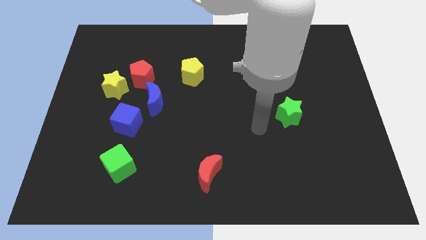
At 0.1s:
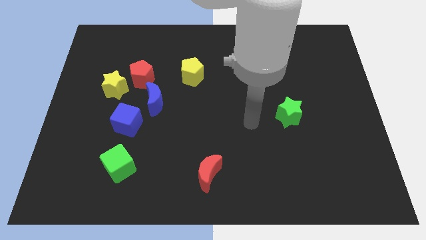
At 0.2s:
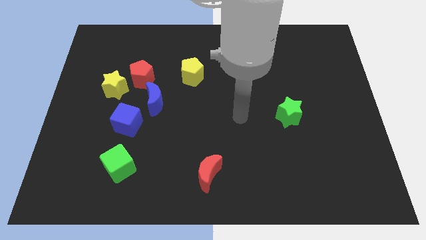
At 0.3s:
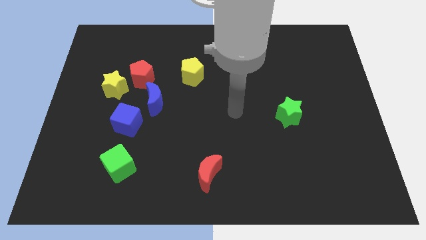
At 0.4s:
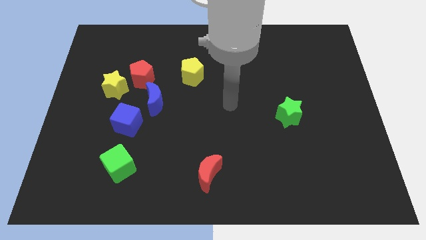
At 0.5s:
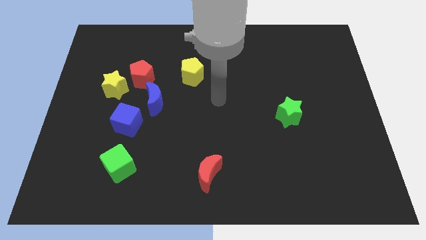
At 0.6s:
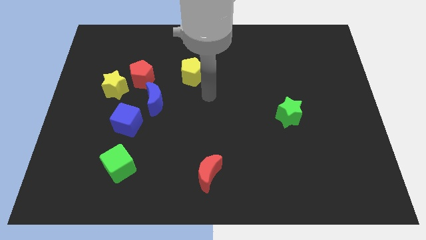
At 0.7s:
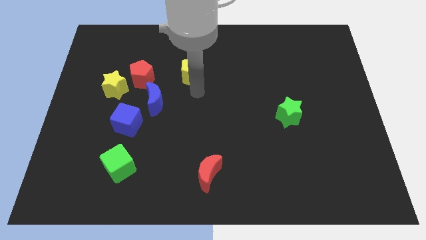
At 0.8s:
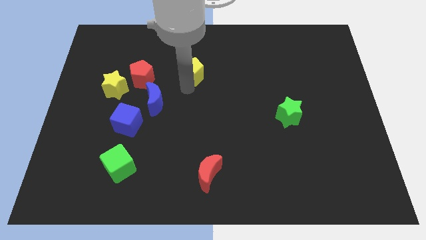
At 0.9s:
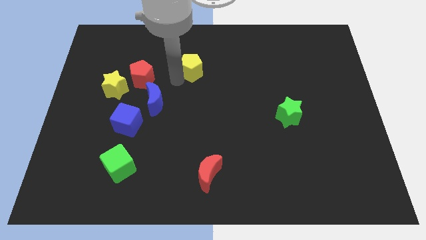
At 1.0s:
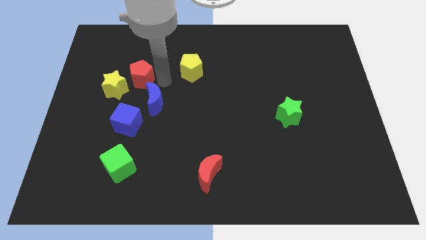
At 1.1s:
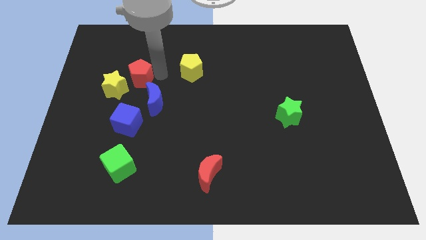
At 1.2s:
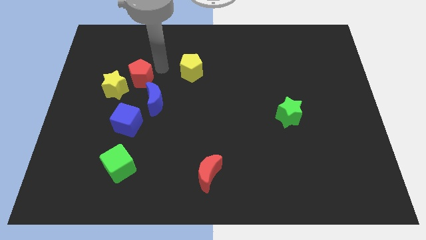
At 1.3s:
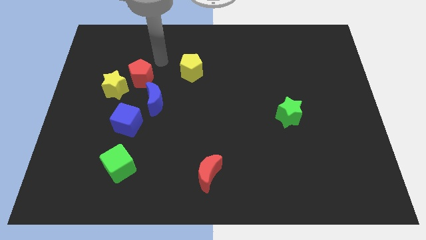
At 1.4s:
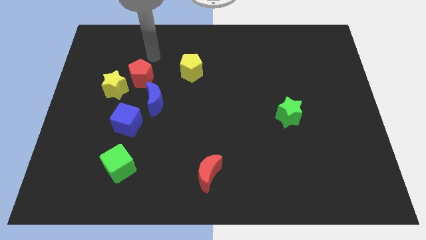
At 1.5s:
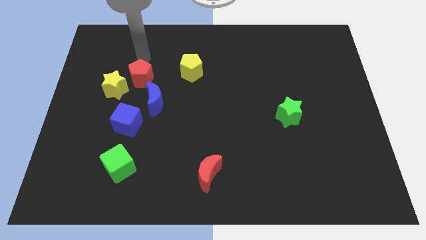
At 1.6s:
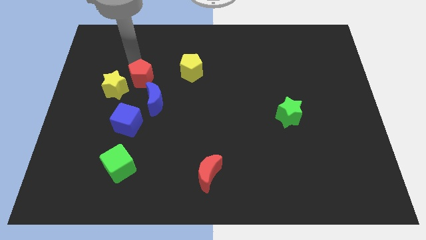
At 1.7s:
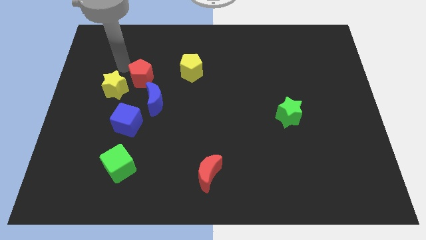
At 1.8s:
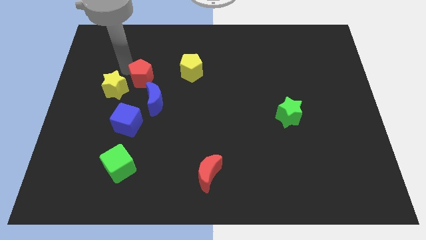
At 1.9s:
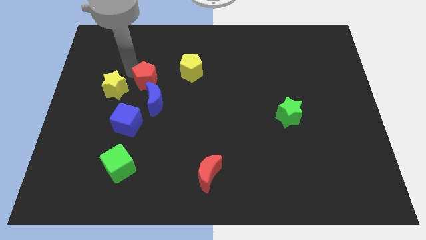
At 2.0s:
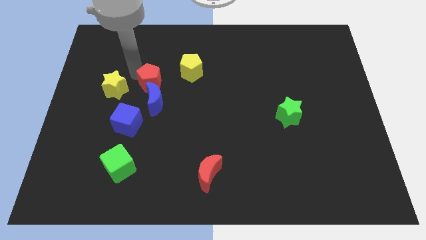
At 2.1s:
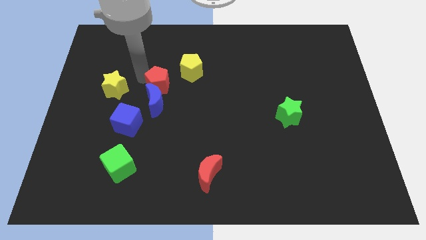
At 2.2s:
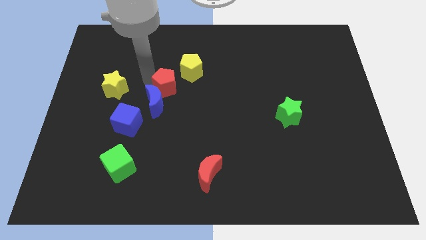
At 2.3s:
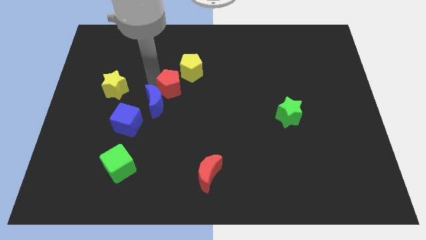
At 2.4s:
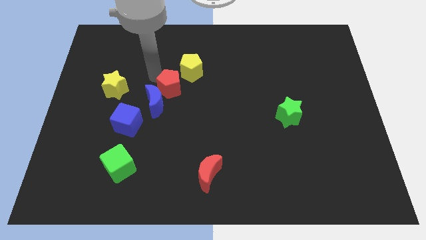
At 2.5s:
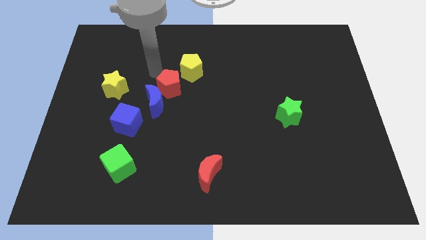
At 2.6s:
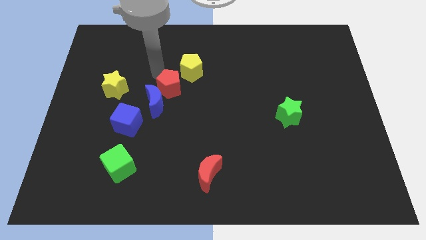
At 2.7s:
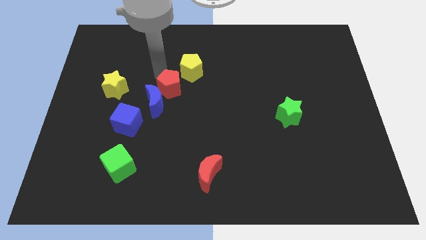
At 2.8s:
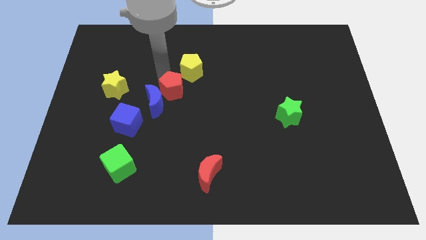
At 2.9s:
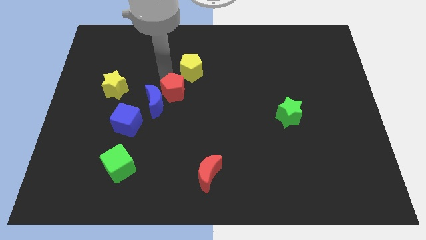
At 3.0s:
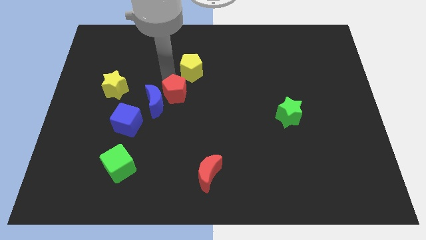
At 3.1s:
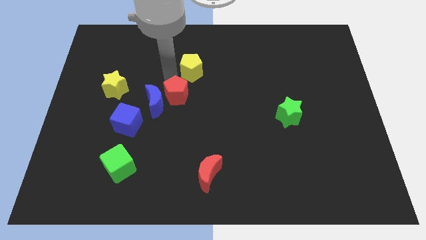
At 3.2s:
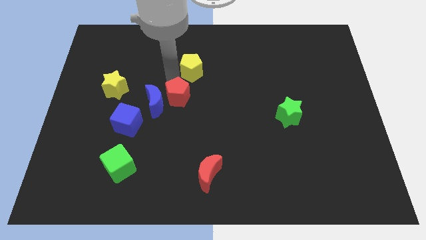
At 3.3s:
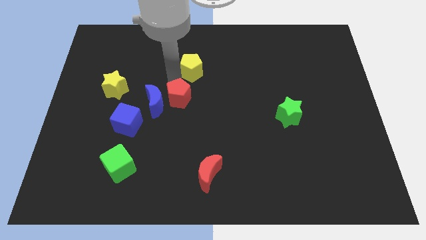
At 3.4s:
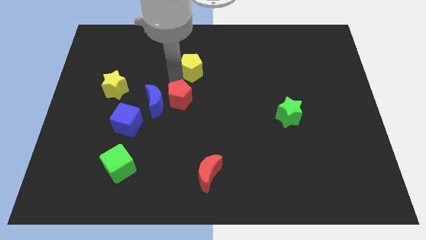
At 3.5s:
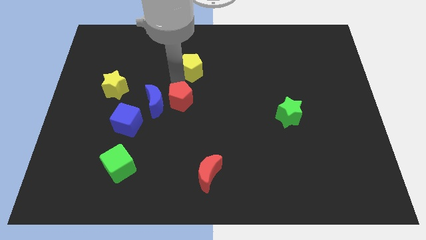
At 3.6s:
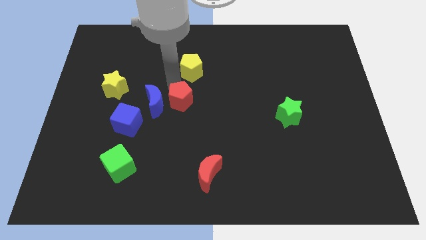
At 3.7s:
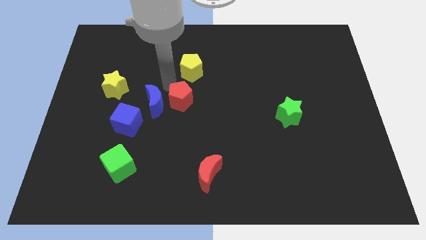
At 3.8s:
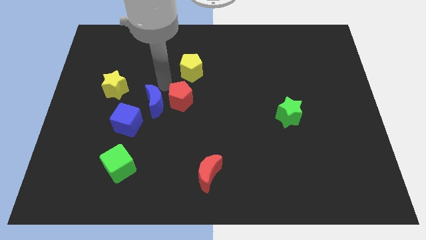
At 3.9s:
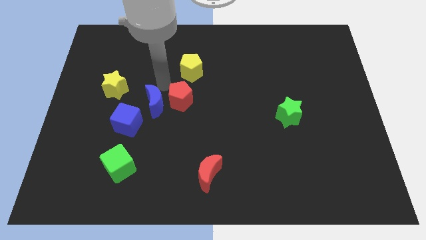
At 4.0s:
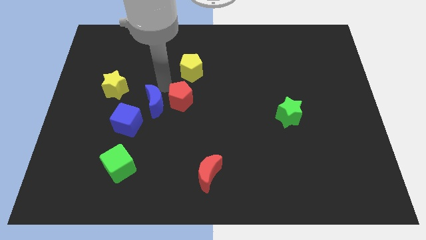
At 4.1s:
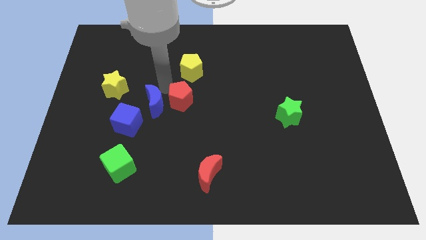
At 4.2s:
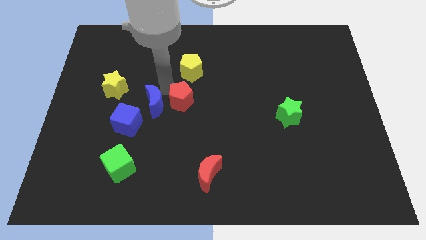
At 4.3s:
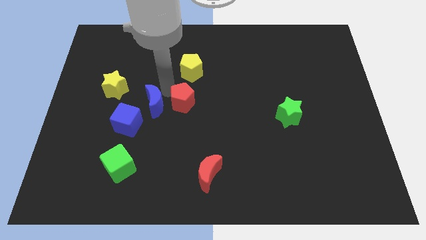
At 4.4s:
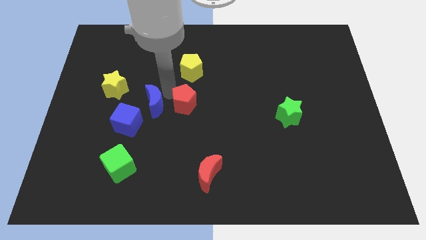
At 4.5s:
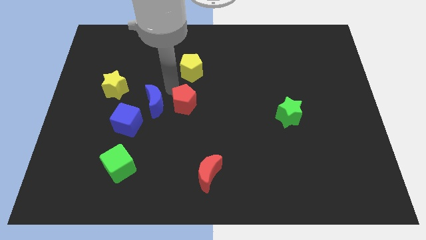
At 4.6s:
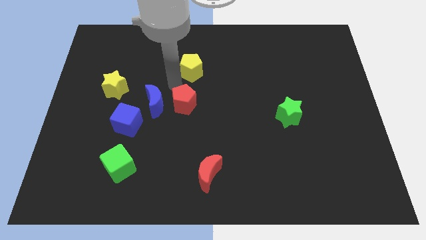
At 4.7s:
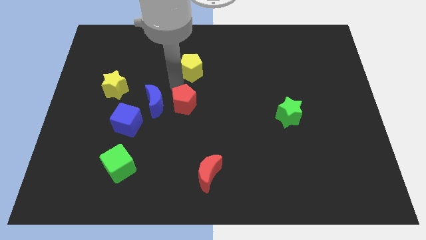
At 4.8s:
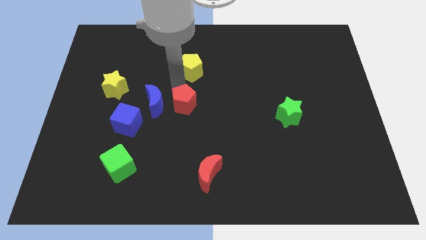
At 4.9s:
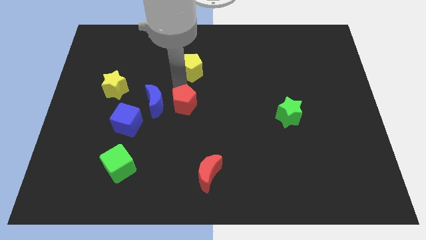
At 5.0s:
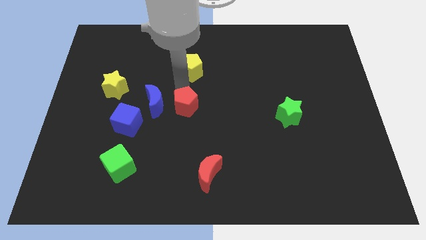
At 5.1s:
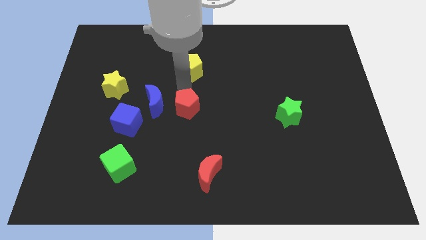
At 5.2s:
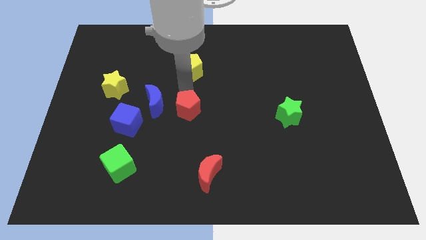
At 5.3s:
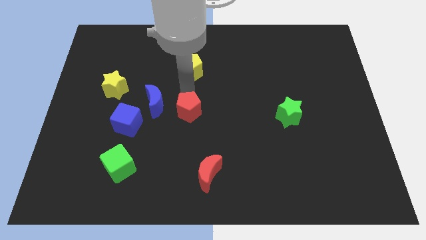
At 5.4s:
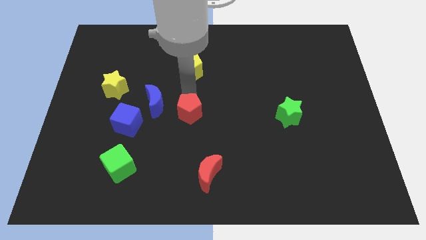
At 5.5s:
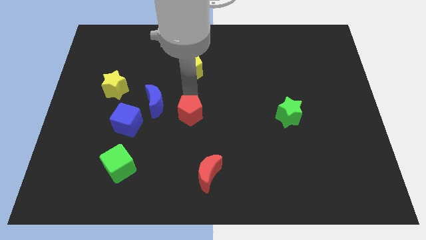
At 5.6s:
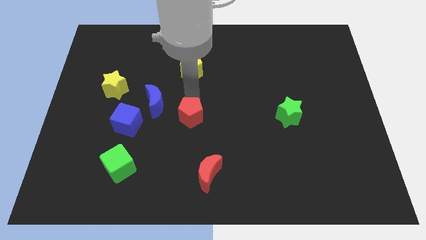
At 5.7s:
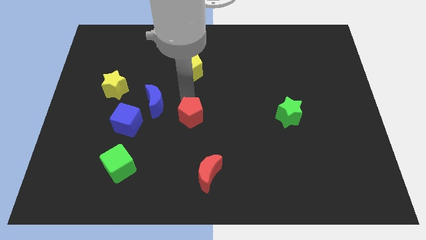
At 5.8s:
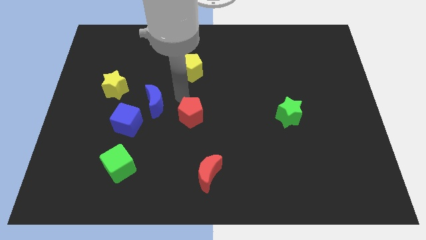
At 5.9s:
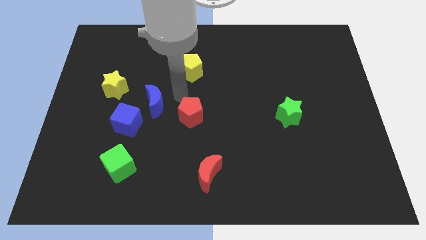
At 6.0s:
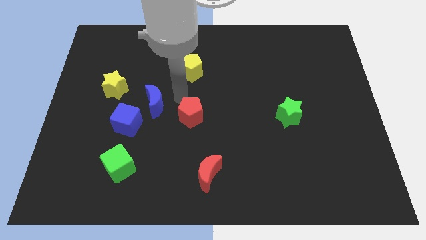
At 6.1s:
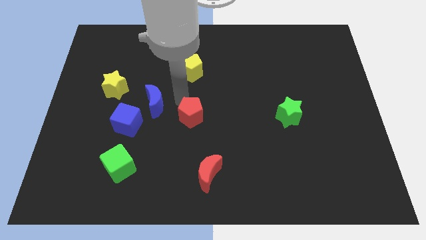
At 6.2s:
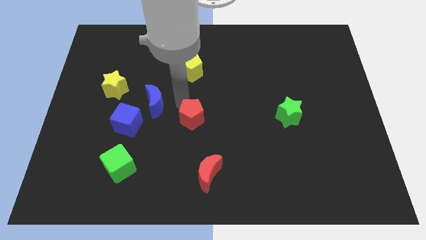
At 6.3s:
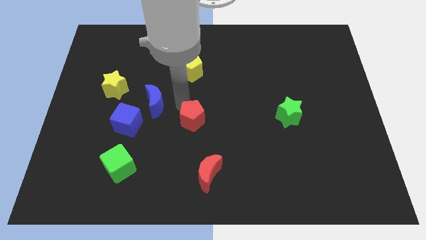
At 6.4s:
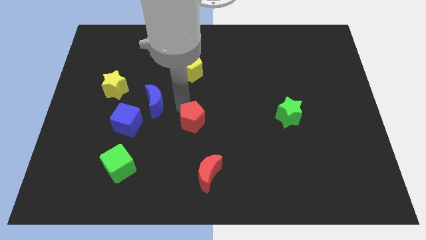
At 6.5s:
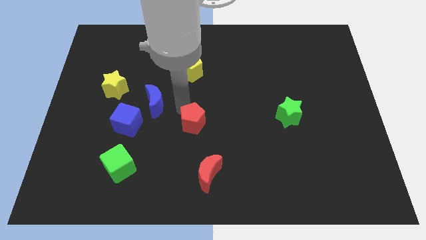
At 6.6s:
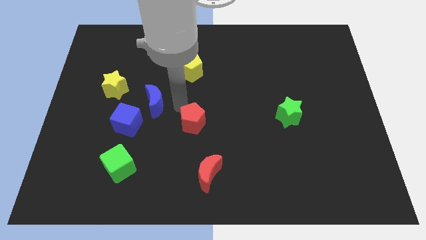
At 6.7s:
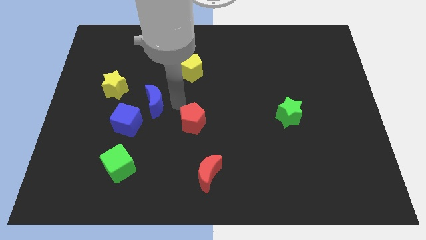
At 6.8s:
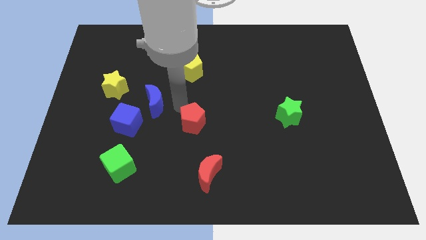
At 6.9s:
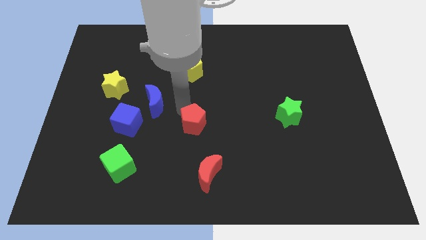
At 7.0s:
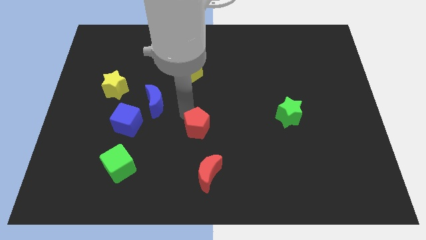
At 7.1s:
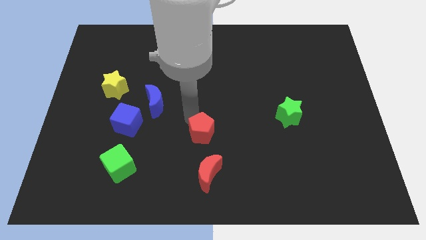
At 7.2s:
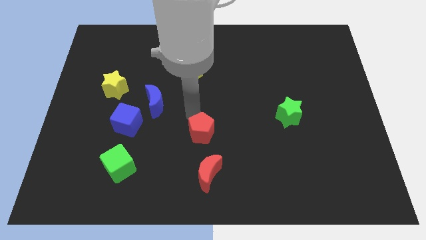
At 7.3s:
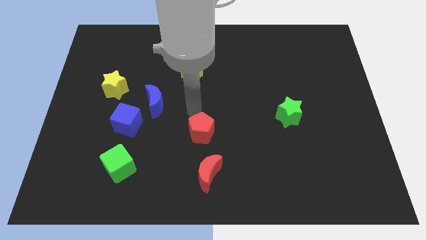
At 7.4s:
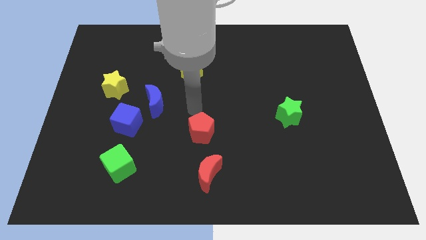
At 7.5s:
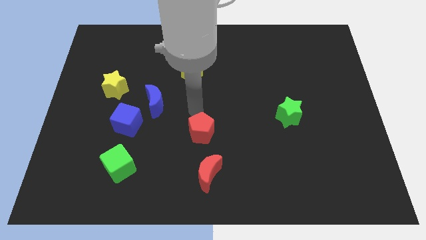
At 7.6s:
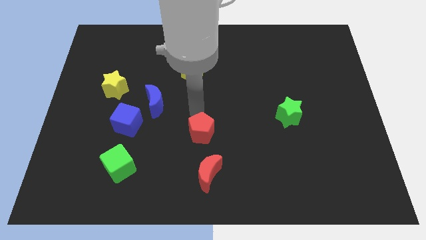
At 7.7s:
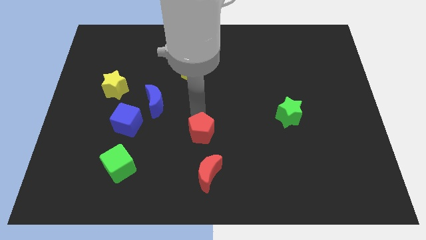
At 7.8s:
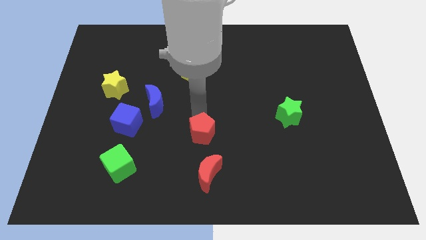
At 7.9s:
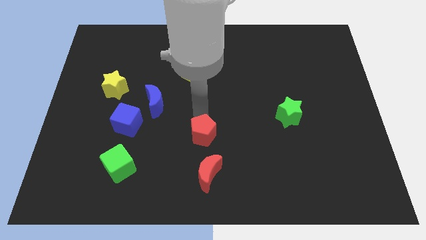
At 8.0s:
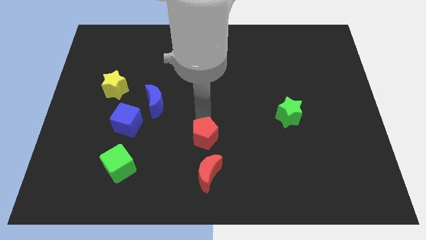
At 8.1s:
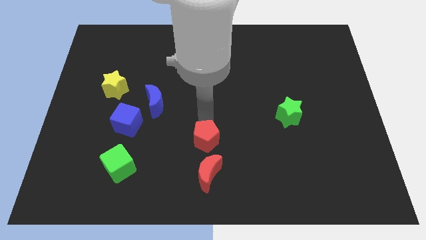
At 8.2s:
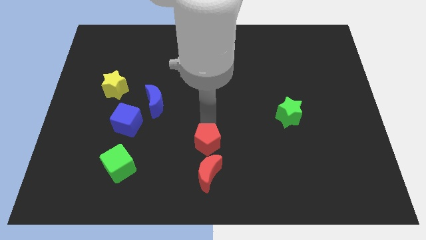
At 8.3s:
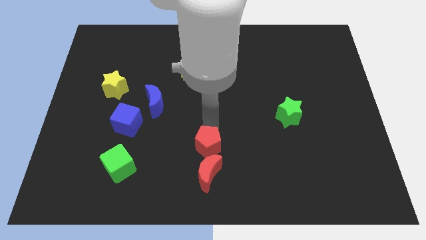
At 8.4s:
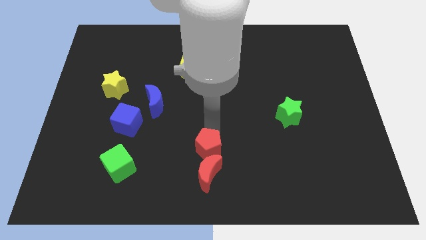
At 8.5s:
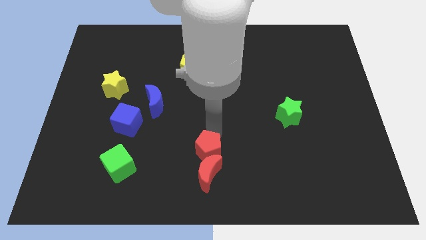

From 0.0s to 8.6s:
put the red pentagon to the red moon
